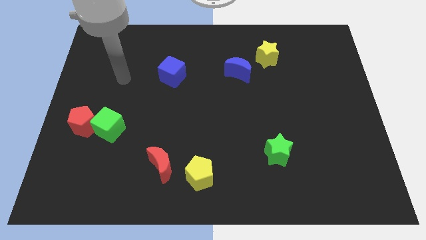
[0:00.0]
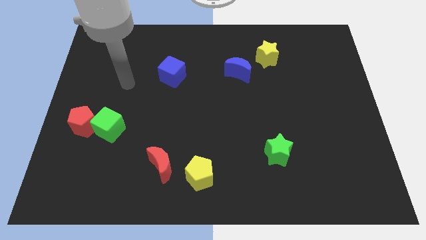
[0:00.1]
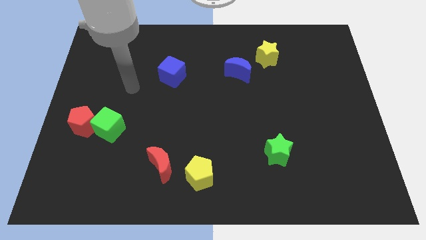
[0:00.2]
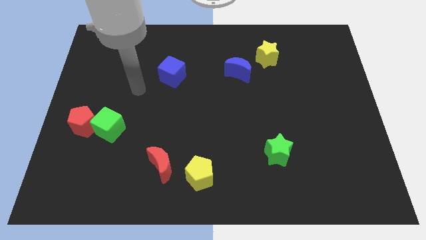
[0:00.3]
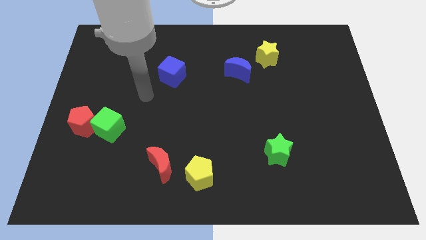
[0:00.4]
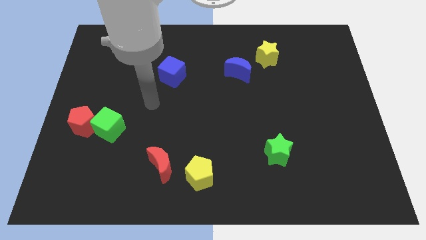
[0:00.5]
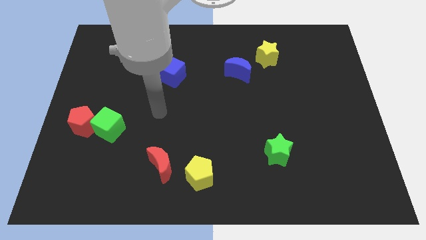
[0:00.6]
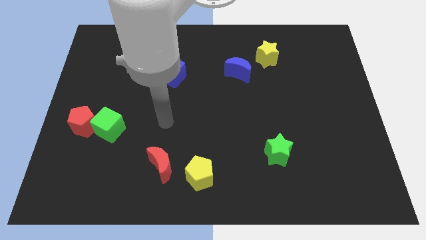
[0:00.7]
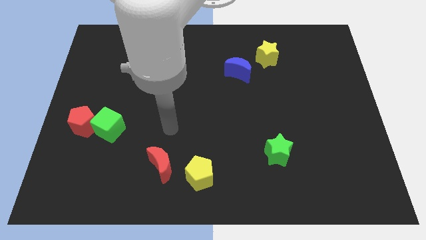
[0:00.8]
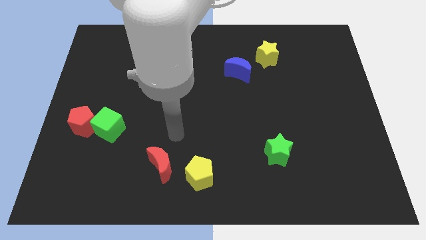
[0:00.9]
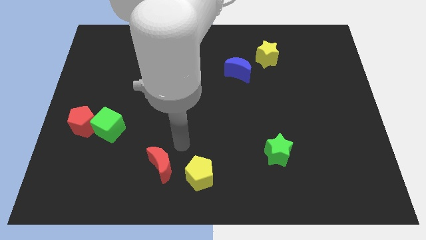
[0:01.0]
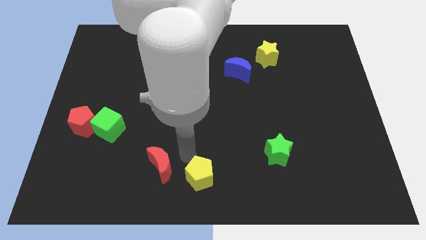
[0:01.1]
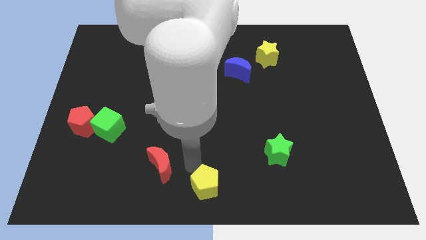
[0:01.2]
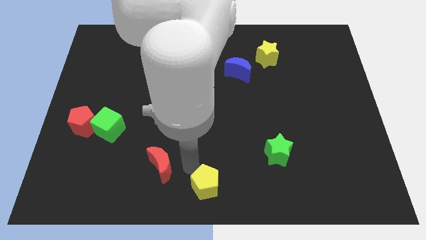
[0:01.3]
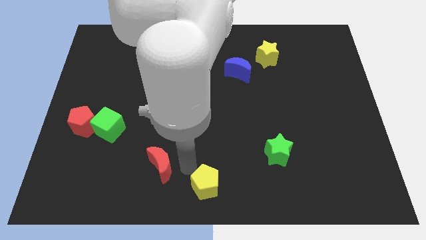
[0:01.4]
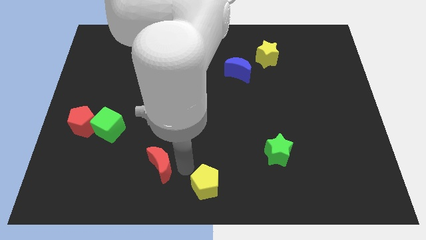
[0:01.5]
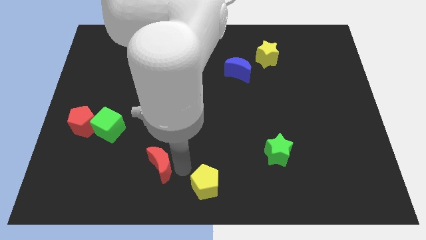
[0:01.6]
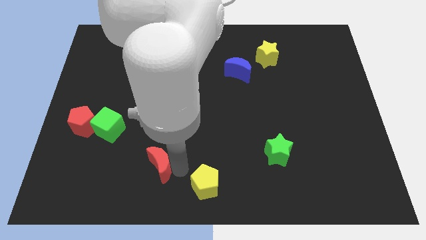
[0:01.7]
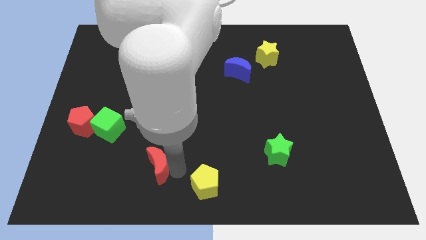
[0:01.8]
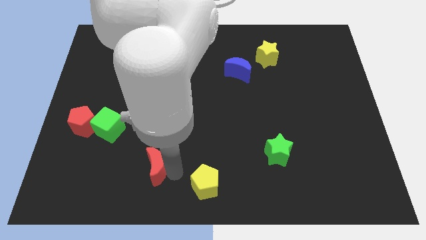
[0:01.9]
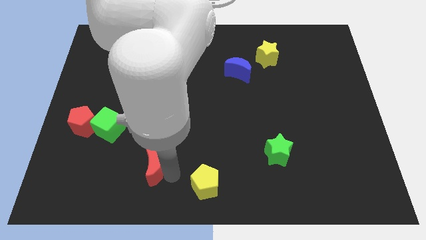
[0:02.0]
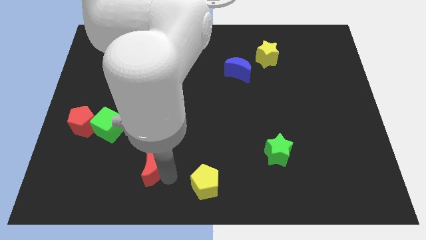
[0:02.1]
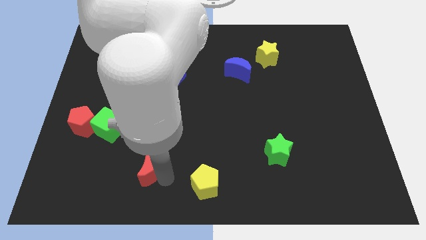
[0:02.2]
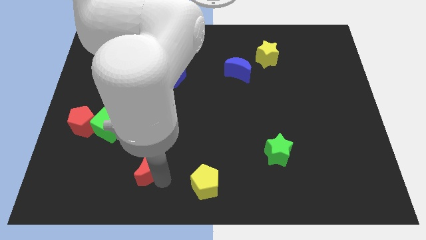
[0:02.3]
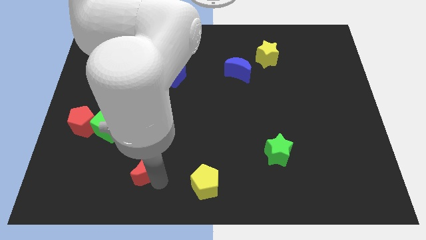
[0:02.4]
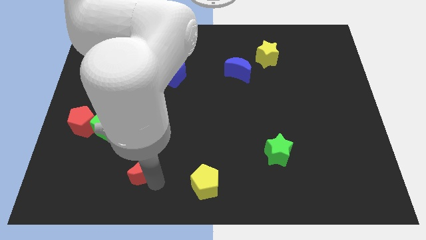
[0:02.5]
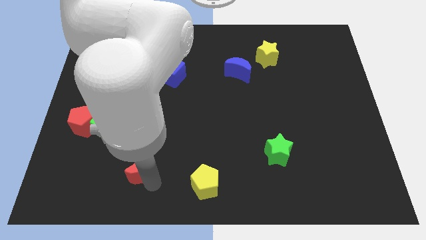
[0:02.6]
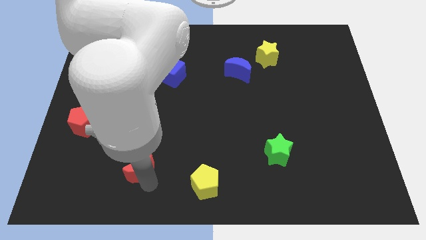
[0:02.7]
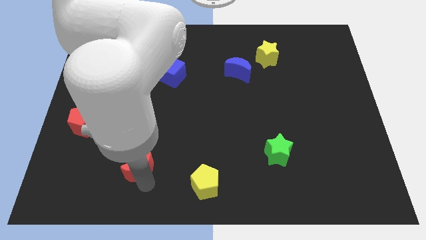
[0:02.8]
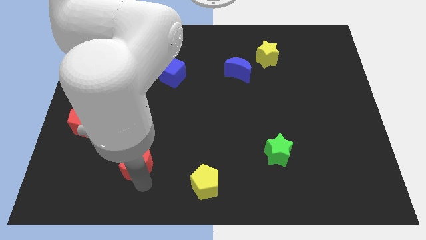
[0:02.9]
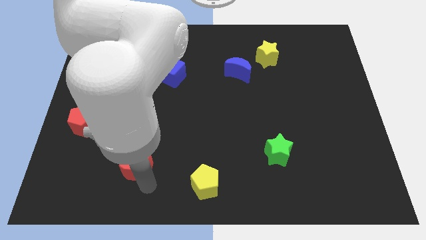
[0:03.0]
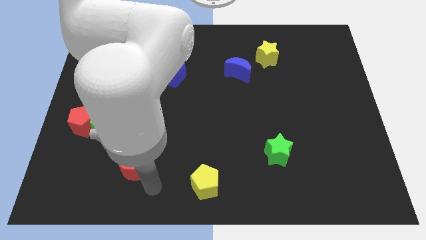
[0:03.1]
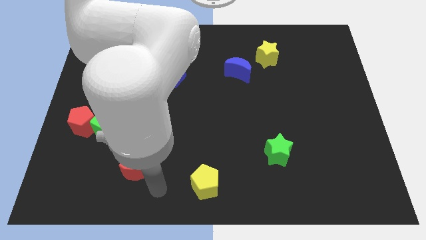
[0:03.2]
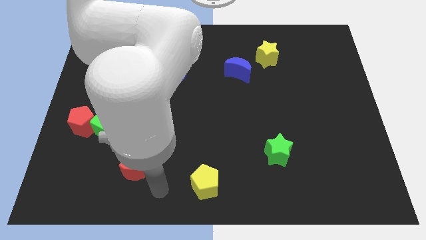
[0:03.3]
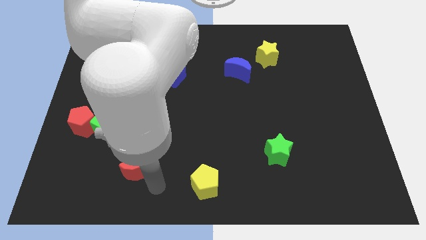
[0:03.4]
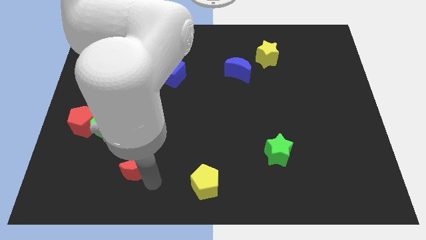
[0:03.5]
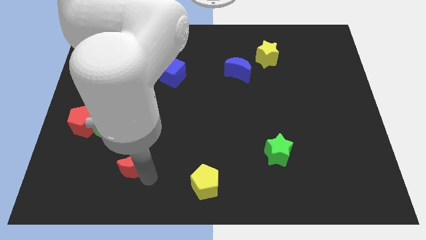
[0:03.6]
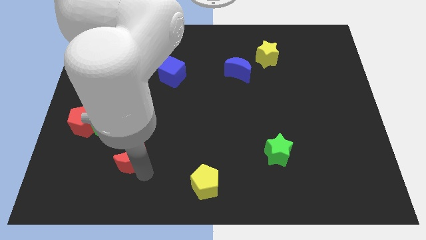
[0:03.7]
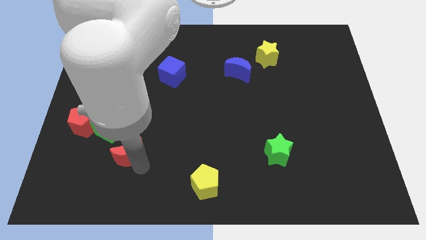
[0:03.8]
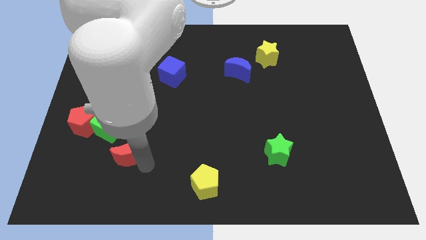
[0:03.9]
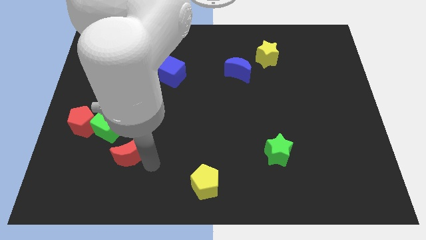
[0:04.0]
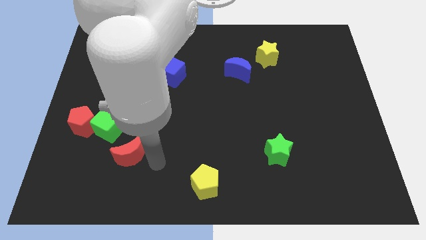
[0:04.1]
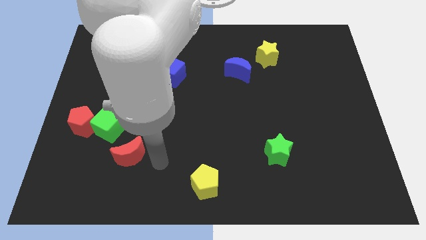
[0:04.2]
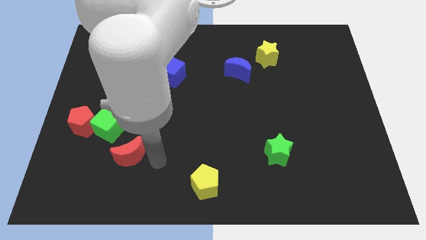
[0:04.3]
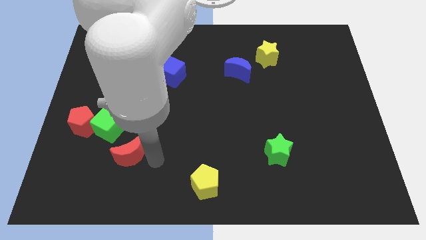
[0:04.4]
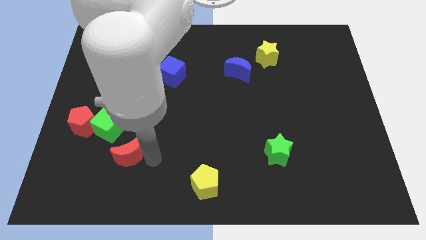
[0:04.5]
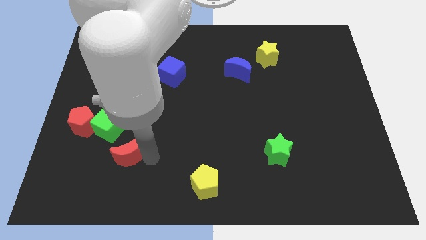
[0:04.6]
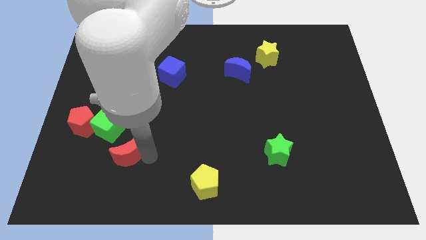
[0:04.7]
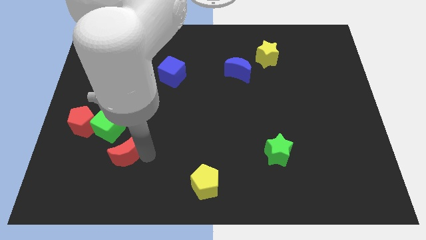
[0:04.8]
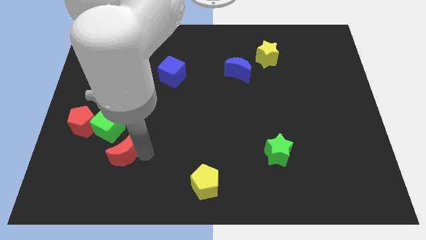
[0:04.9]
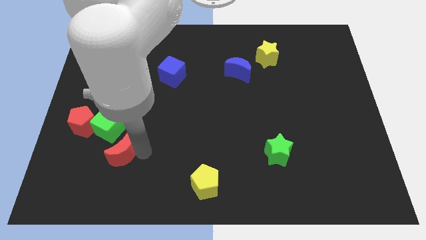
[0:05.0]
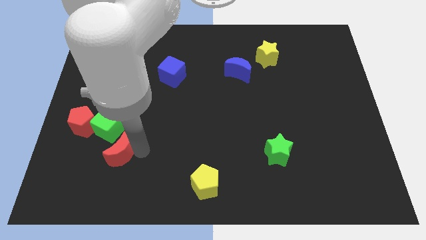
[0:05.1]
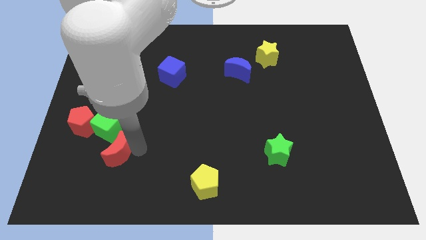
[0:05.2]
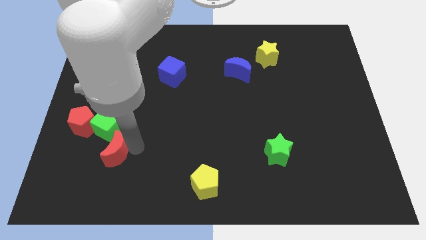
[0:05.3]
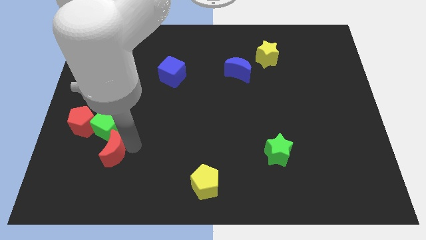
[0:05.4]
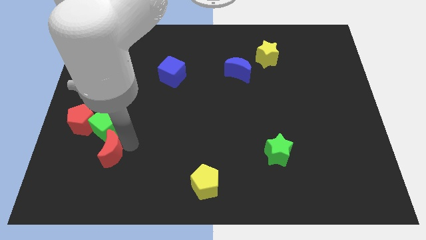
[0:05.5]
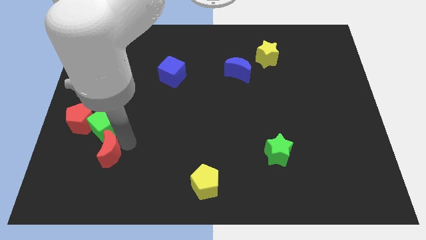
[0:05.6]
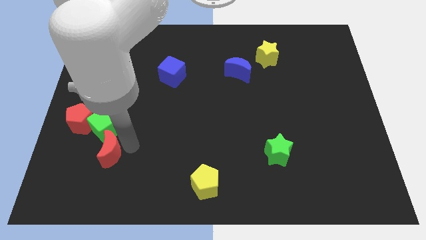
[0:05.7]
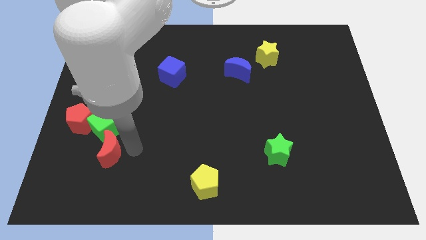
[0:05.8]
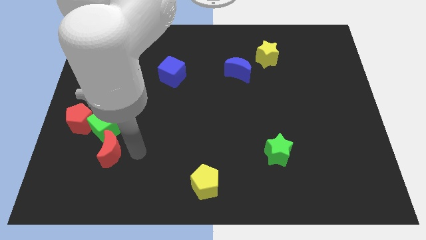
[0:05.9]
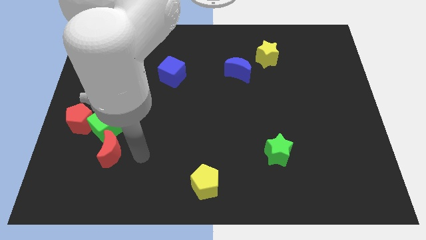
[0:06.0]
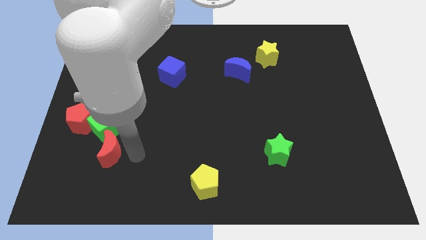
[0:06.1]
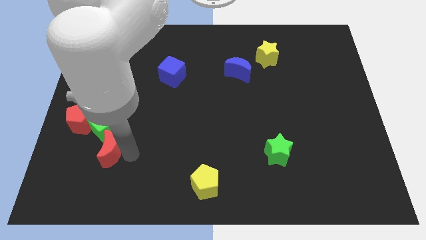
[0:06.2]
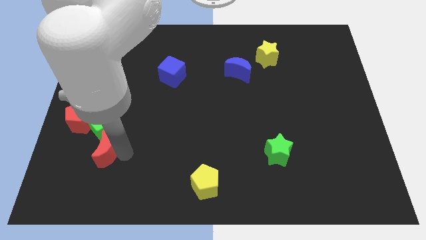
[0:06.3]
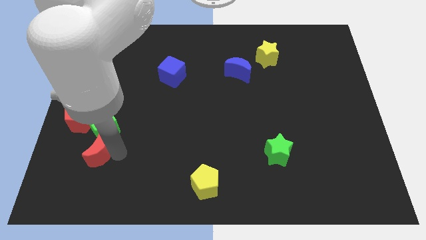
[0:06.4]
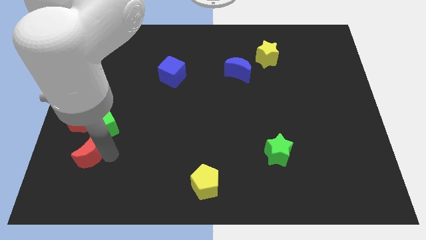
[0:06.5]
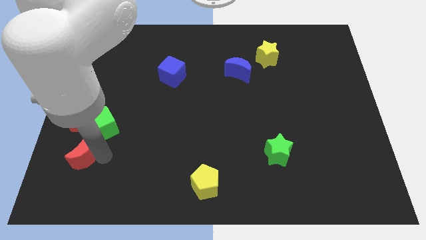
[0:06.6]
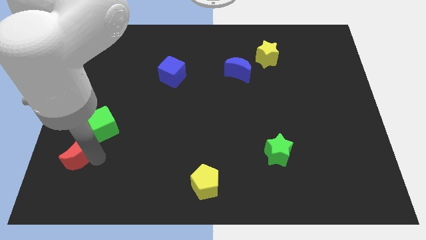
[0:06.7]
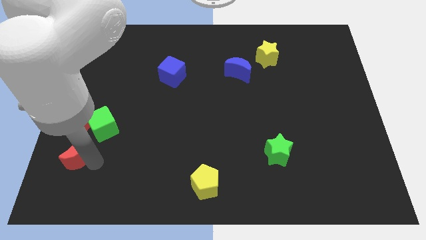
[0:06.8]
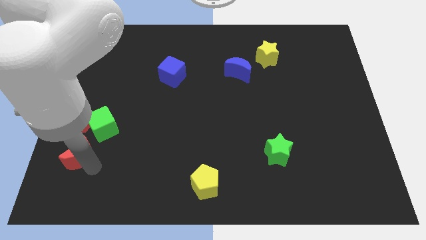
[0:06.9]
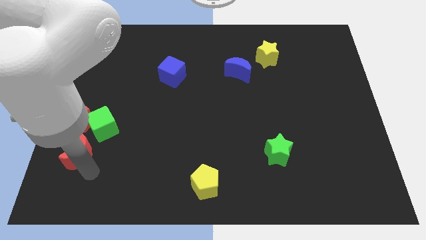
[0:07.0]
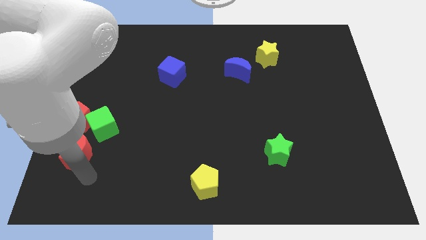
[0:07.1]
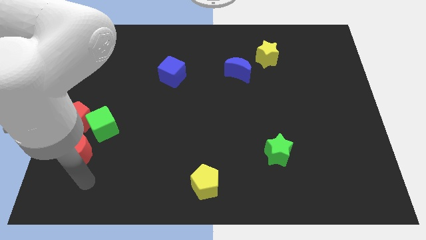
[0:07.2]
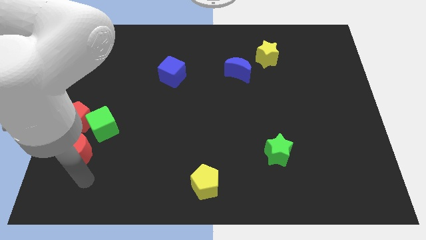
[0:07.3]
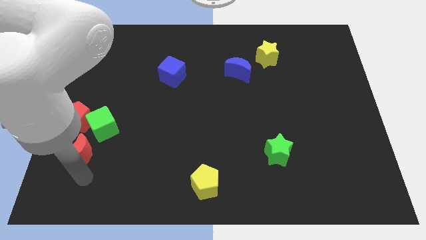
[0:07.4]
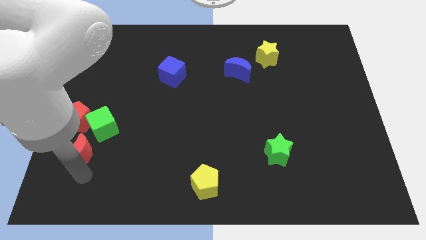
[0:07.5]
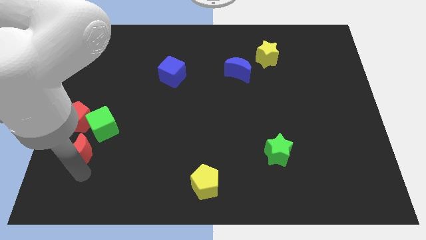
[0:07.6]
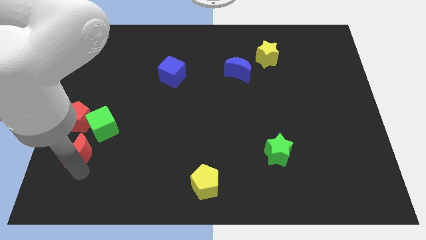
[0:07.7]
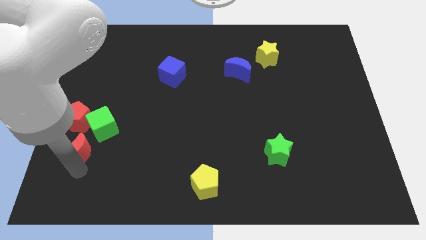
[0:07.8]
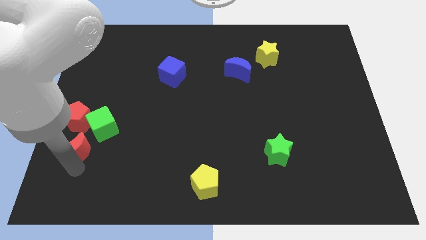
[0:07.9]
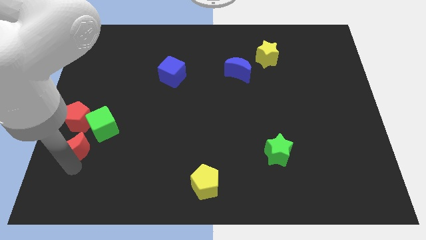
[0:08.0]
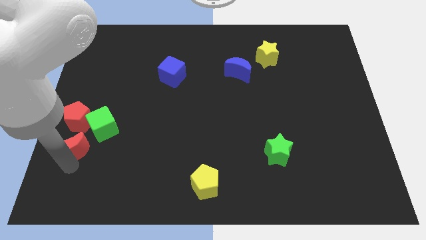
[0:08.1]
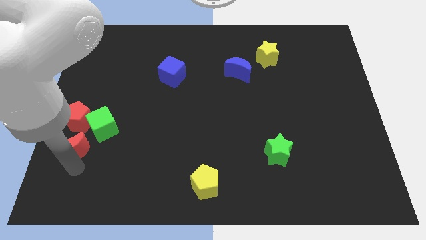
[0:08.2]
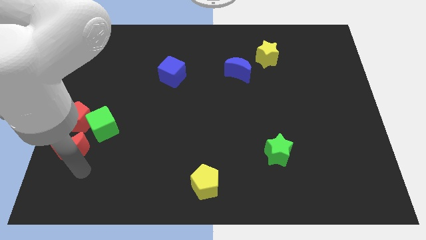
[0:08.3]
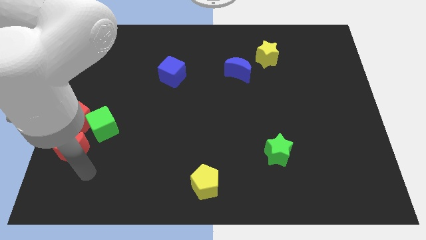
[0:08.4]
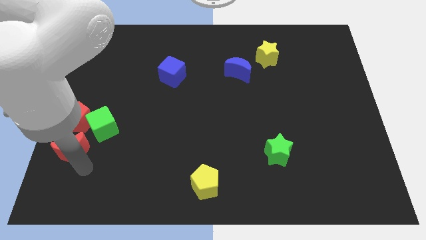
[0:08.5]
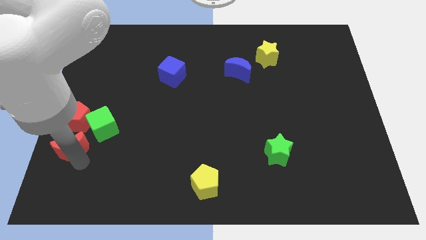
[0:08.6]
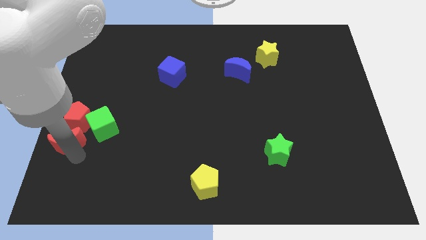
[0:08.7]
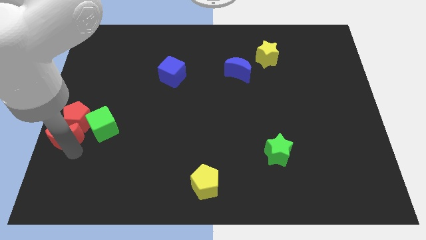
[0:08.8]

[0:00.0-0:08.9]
slide the red moon to the left side
